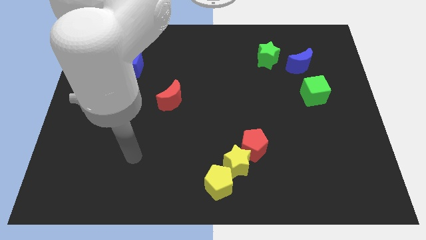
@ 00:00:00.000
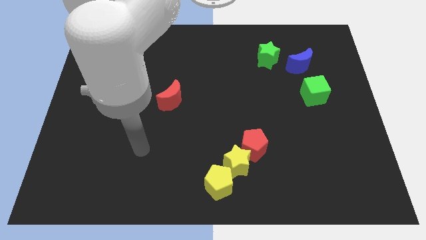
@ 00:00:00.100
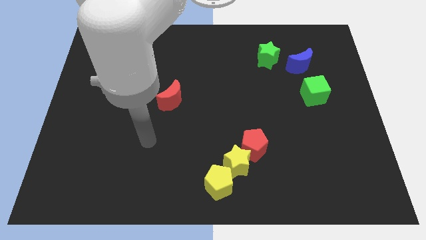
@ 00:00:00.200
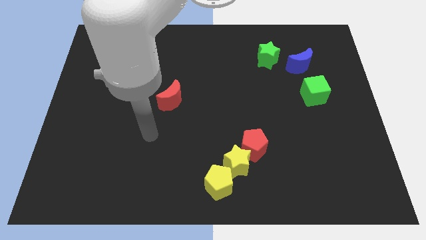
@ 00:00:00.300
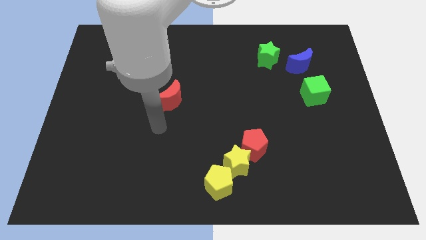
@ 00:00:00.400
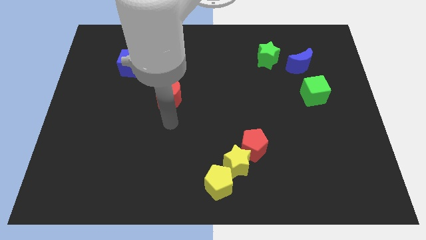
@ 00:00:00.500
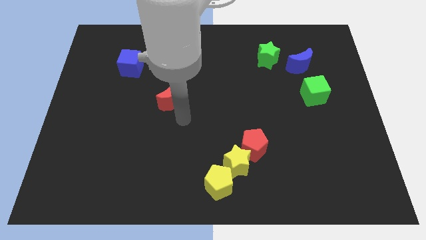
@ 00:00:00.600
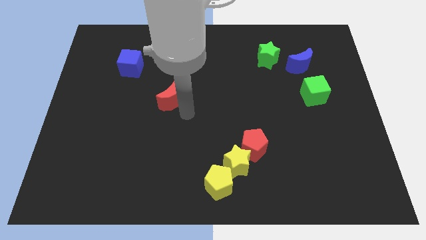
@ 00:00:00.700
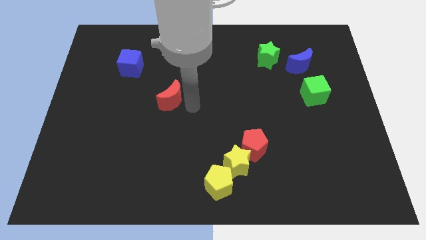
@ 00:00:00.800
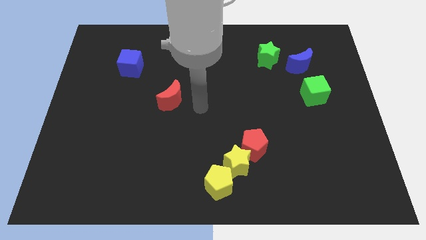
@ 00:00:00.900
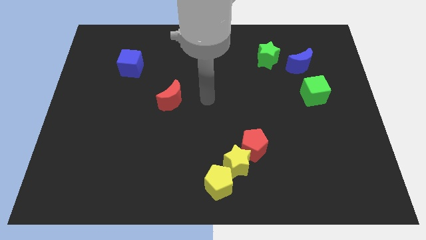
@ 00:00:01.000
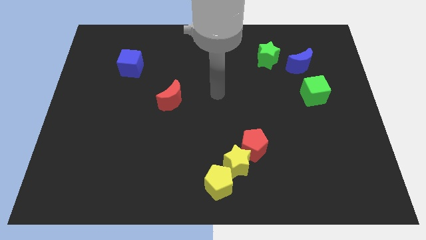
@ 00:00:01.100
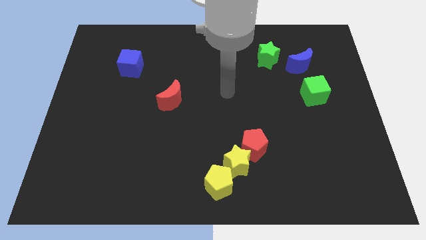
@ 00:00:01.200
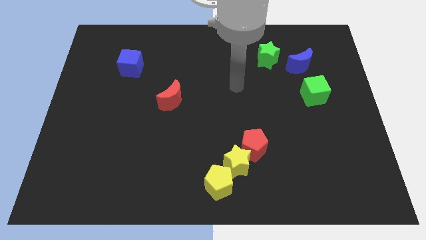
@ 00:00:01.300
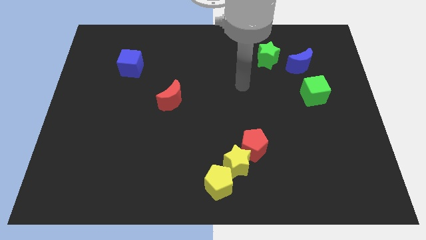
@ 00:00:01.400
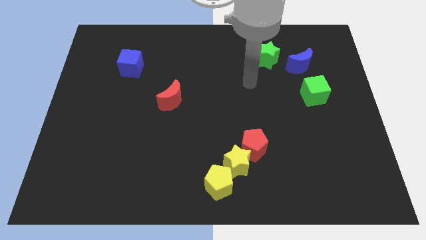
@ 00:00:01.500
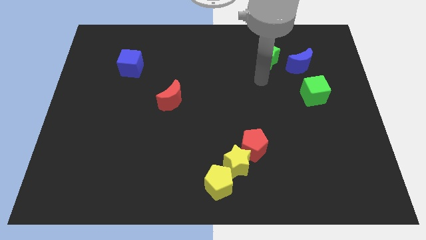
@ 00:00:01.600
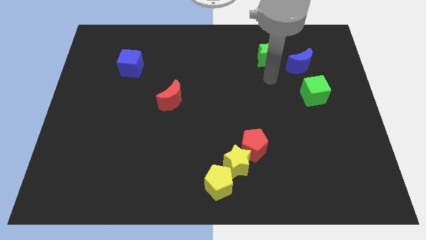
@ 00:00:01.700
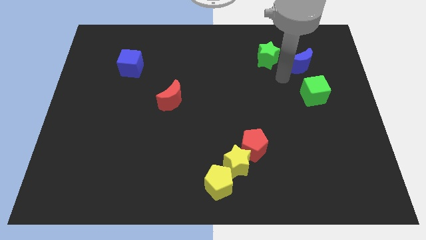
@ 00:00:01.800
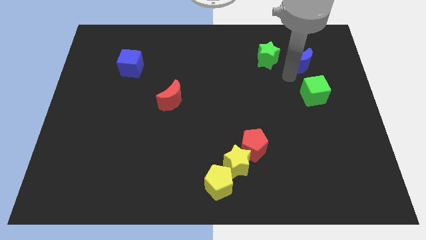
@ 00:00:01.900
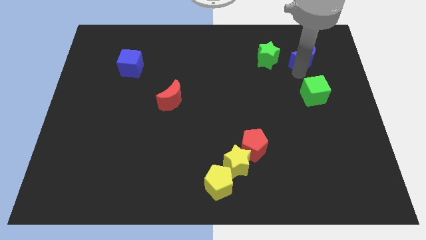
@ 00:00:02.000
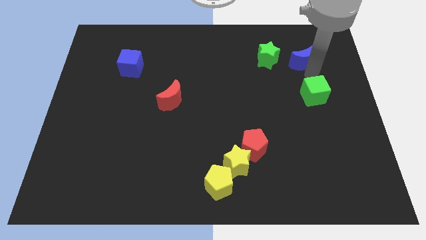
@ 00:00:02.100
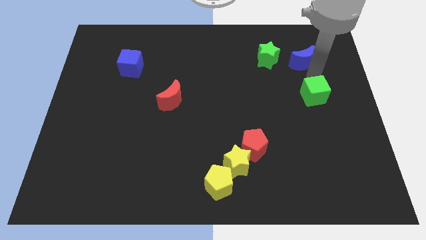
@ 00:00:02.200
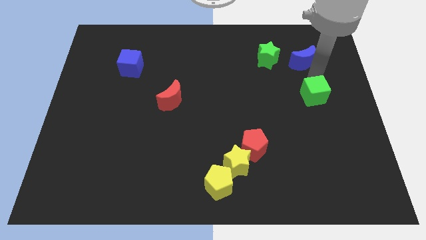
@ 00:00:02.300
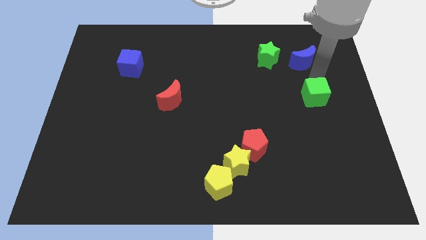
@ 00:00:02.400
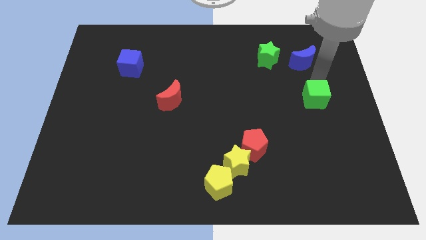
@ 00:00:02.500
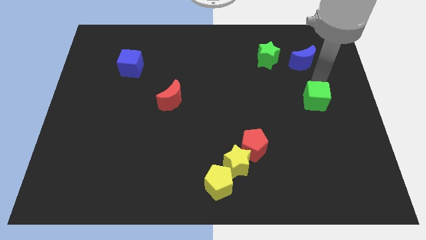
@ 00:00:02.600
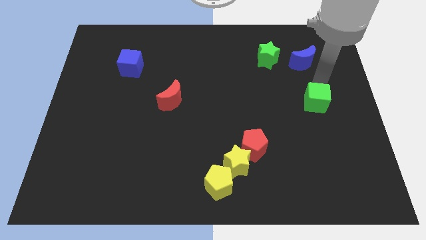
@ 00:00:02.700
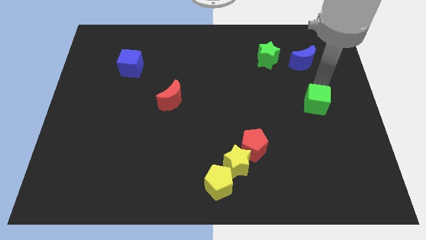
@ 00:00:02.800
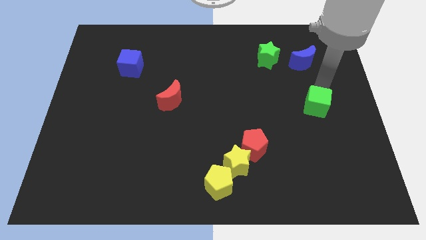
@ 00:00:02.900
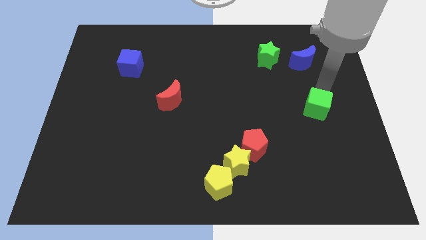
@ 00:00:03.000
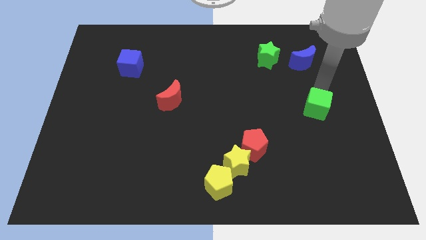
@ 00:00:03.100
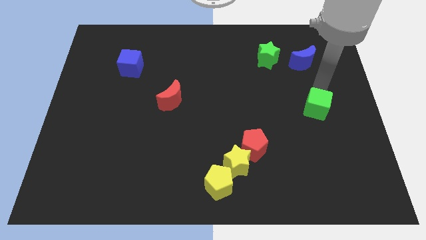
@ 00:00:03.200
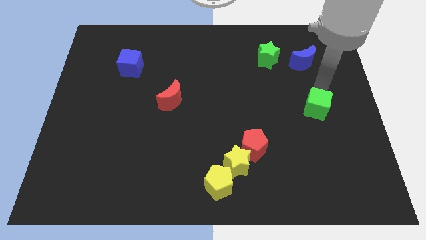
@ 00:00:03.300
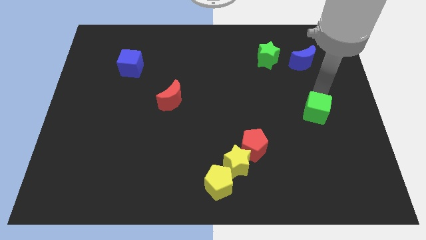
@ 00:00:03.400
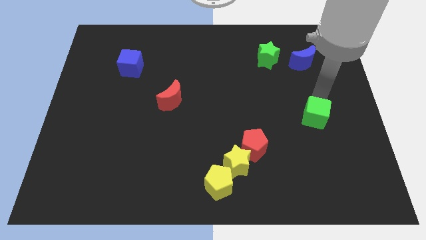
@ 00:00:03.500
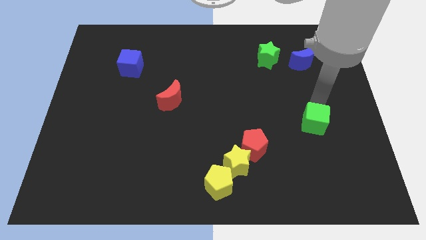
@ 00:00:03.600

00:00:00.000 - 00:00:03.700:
push the green cube somewhat downwards

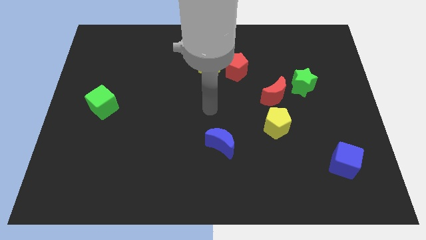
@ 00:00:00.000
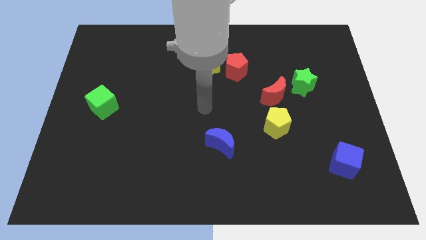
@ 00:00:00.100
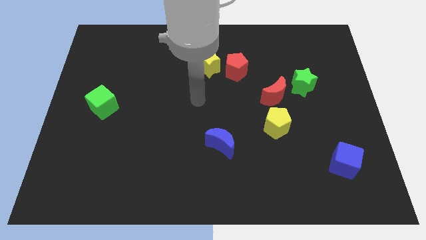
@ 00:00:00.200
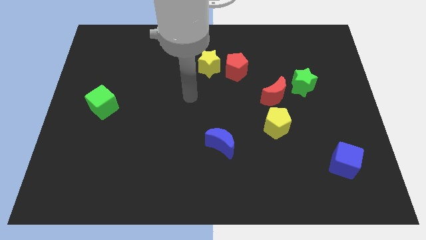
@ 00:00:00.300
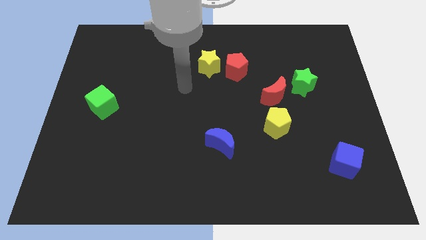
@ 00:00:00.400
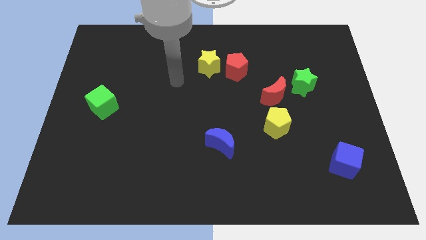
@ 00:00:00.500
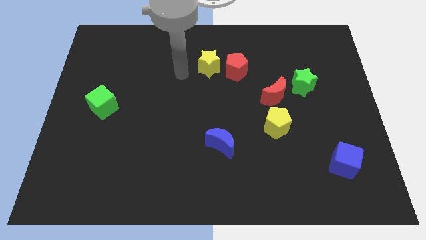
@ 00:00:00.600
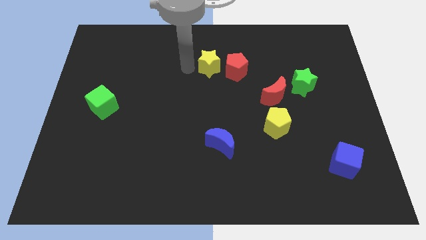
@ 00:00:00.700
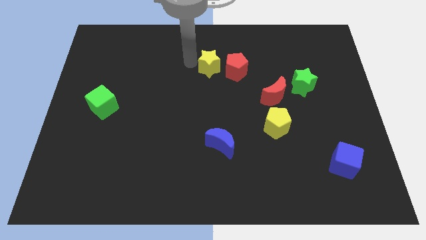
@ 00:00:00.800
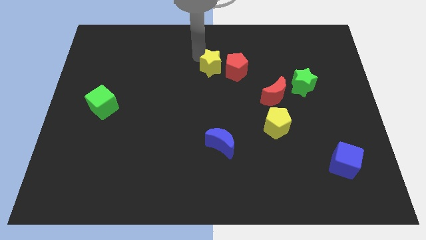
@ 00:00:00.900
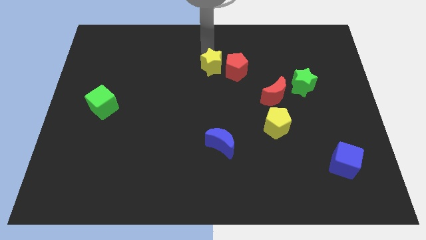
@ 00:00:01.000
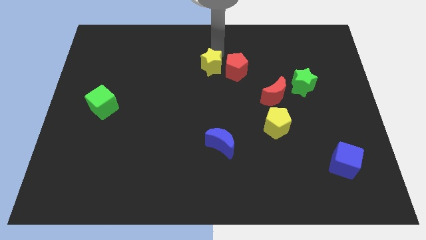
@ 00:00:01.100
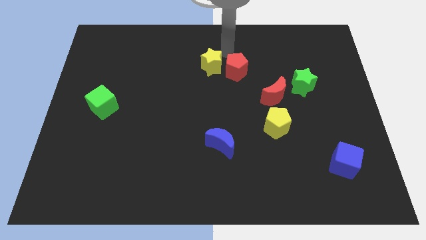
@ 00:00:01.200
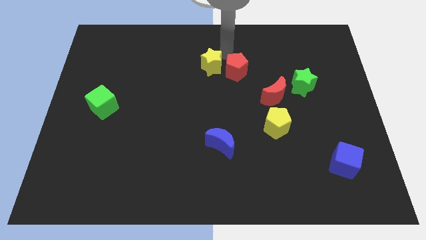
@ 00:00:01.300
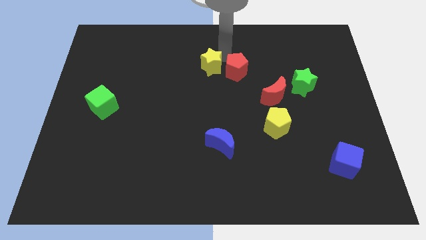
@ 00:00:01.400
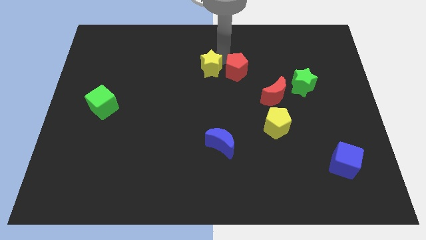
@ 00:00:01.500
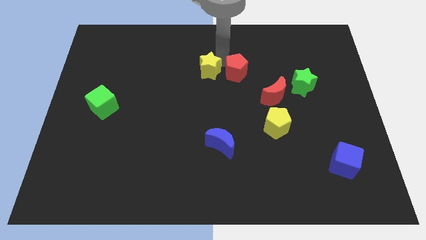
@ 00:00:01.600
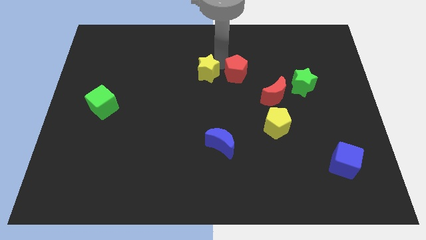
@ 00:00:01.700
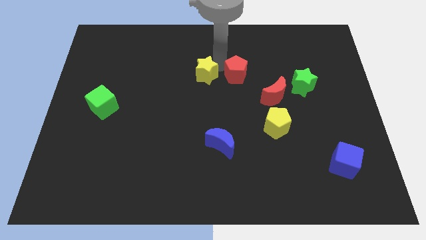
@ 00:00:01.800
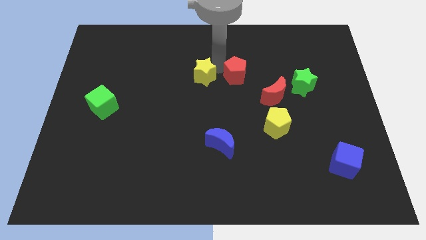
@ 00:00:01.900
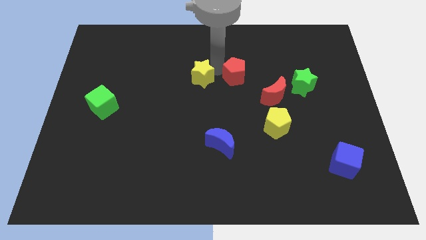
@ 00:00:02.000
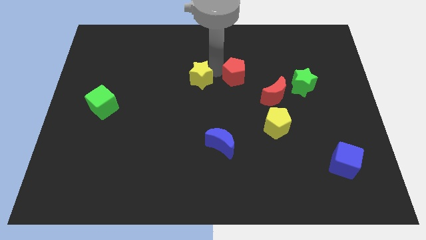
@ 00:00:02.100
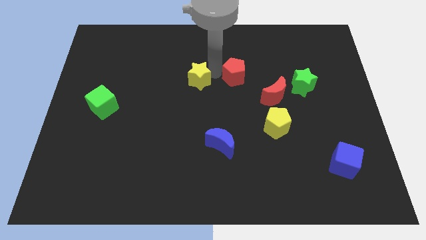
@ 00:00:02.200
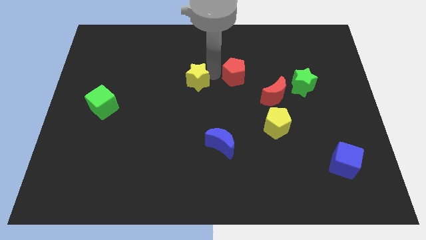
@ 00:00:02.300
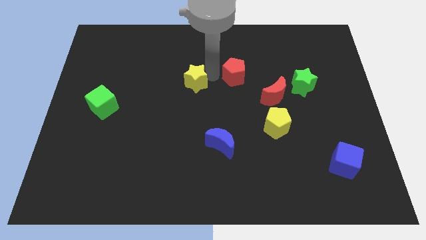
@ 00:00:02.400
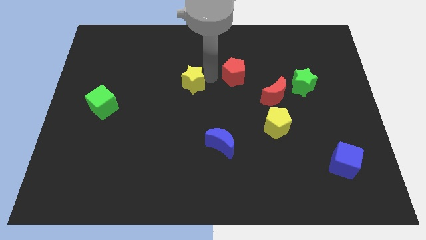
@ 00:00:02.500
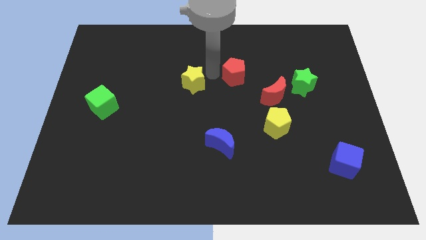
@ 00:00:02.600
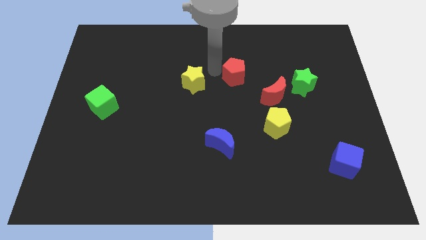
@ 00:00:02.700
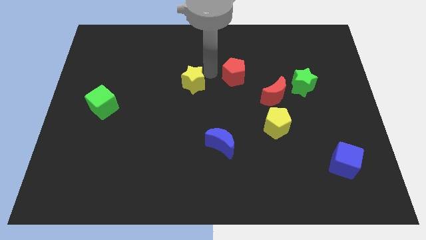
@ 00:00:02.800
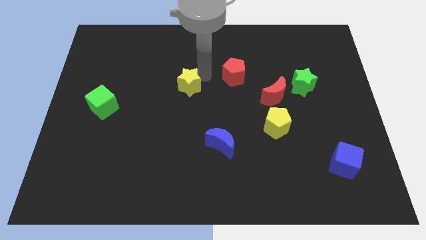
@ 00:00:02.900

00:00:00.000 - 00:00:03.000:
slightly move the yellow star downwards and then to the left

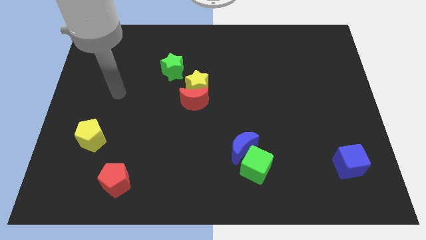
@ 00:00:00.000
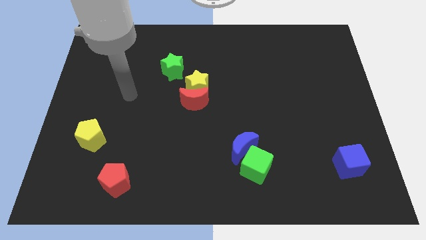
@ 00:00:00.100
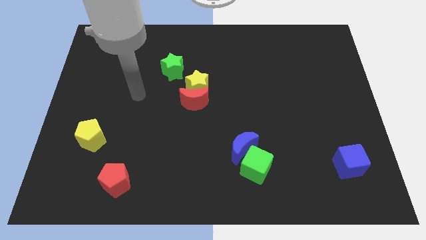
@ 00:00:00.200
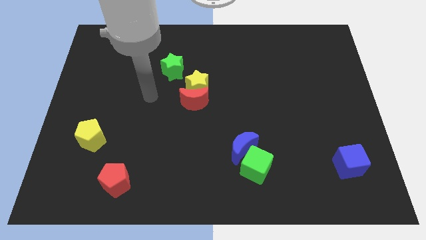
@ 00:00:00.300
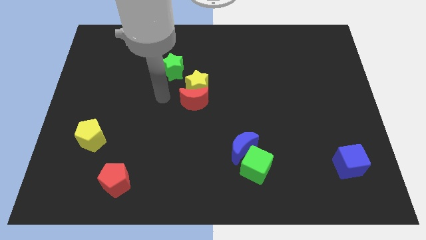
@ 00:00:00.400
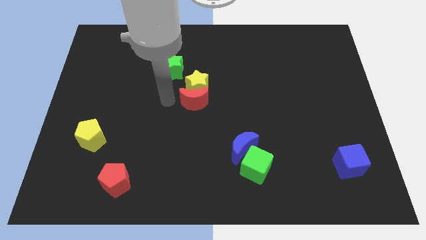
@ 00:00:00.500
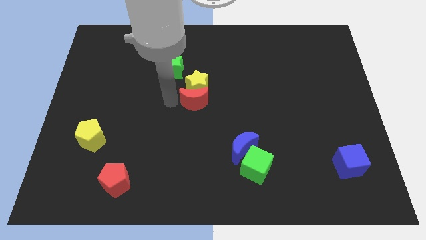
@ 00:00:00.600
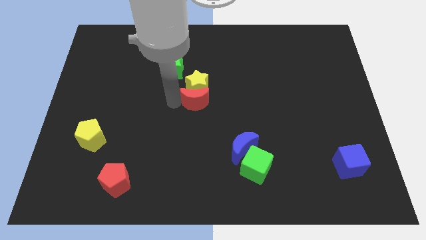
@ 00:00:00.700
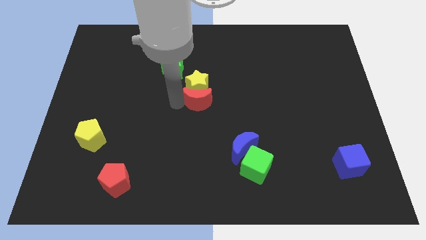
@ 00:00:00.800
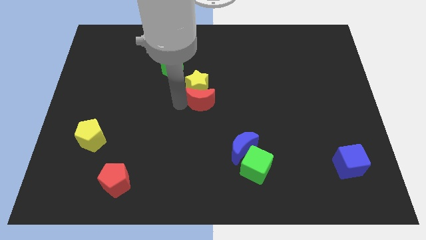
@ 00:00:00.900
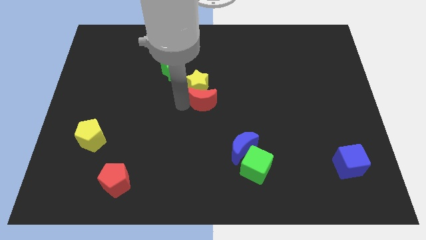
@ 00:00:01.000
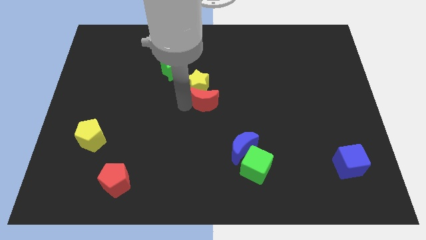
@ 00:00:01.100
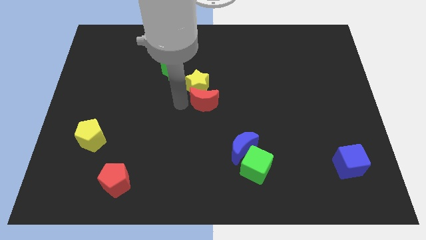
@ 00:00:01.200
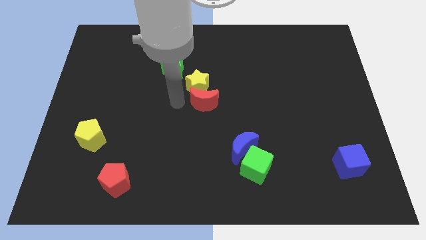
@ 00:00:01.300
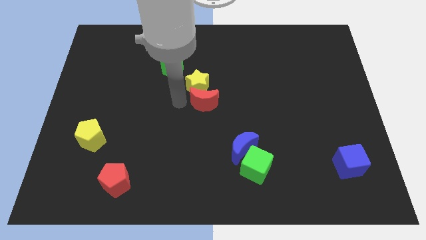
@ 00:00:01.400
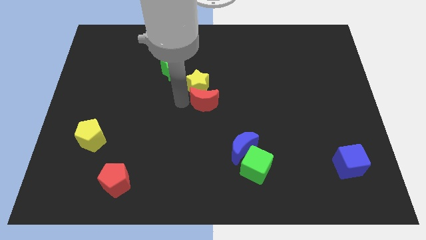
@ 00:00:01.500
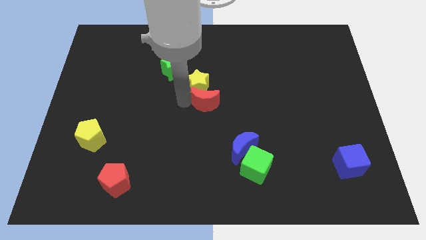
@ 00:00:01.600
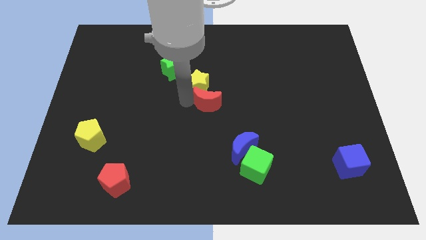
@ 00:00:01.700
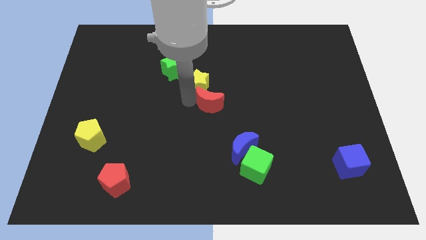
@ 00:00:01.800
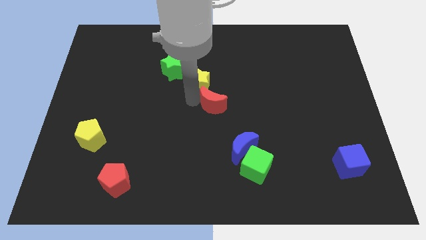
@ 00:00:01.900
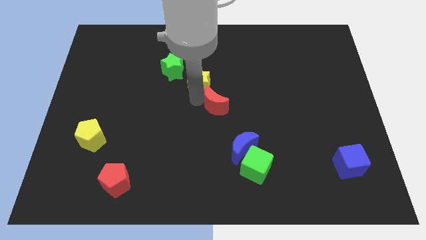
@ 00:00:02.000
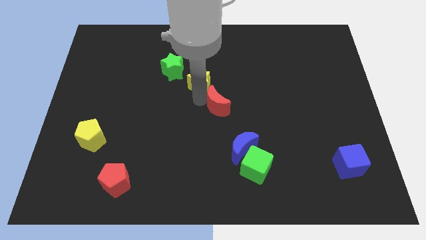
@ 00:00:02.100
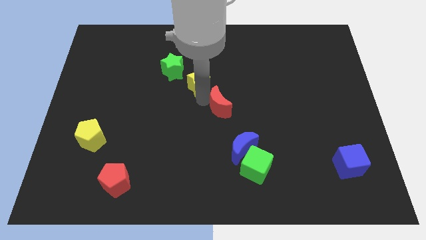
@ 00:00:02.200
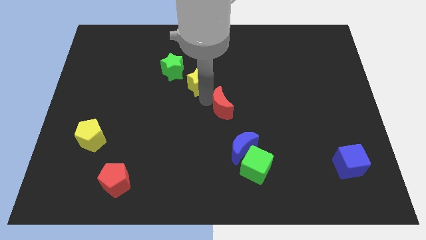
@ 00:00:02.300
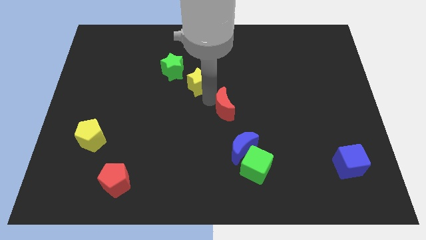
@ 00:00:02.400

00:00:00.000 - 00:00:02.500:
push the red moon a bit right
